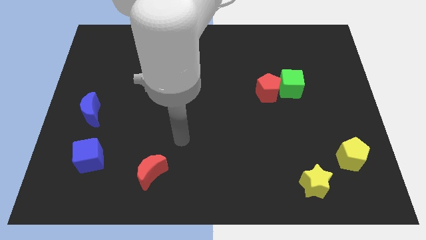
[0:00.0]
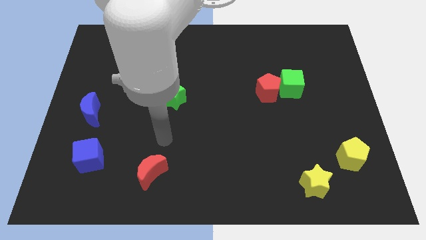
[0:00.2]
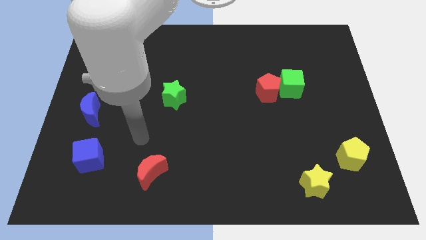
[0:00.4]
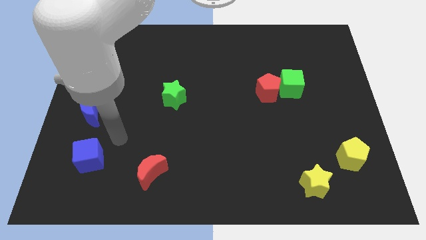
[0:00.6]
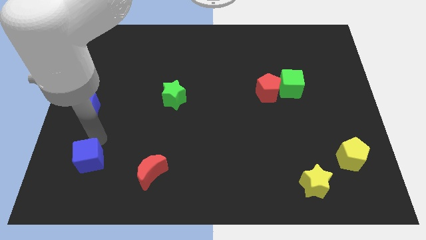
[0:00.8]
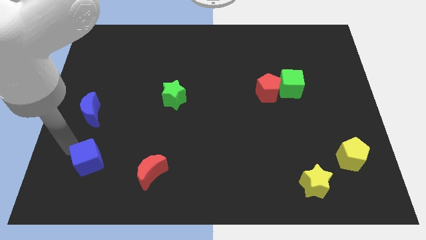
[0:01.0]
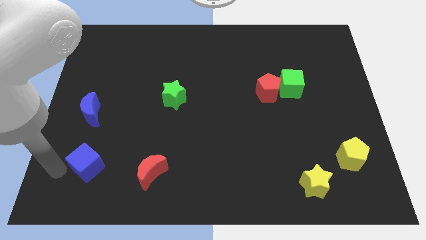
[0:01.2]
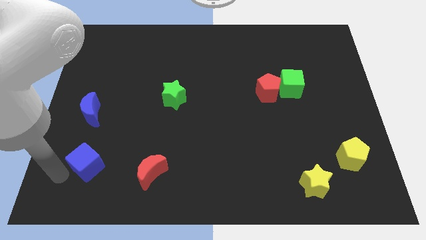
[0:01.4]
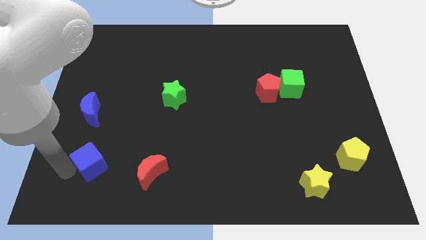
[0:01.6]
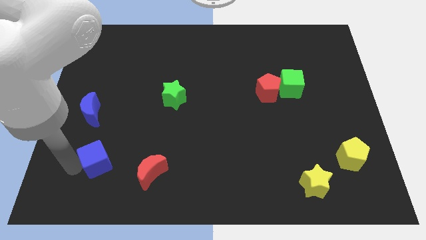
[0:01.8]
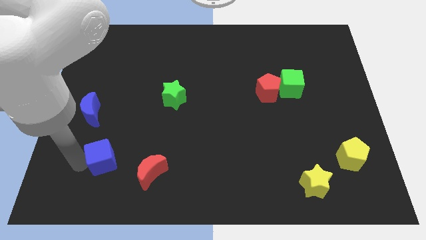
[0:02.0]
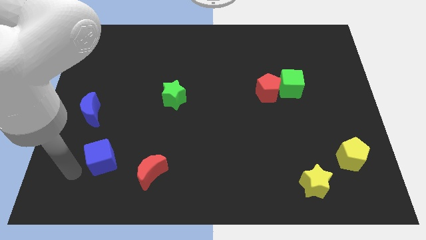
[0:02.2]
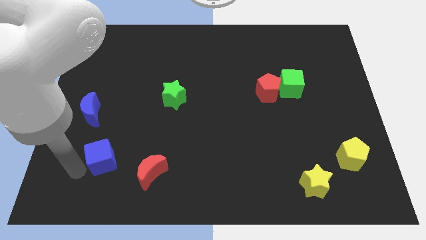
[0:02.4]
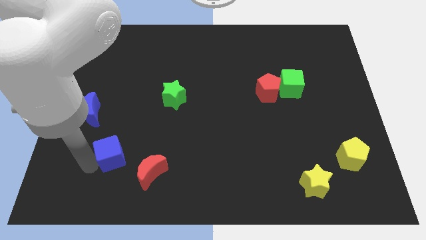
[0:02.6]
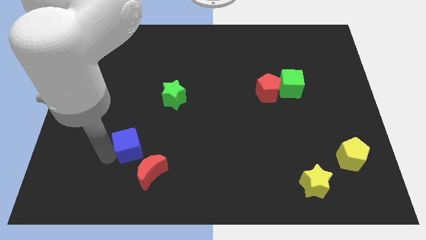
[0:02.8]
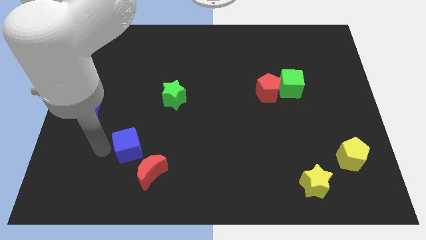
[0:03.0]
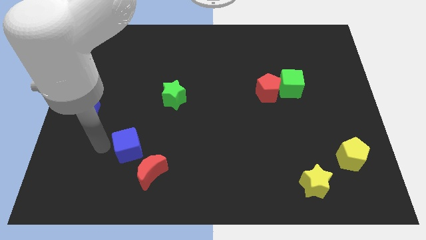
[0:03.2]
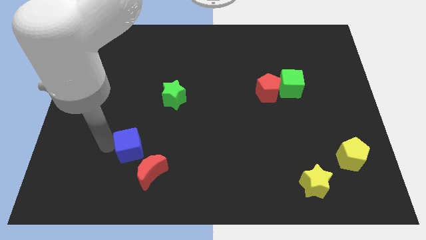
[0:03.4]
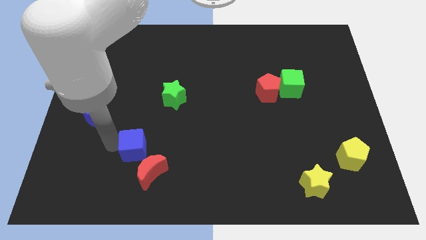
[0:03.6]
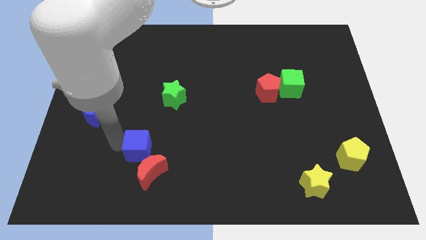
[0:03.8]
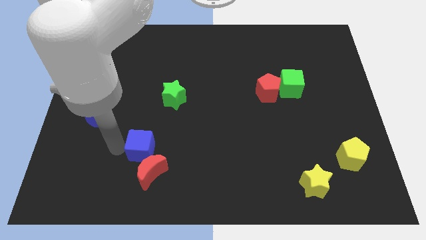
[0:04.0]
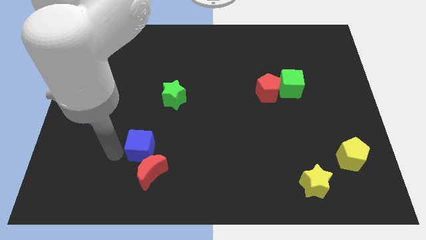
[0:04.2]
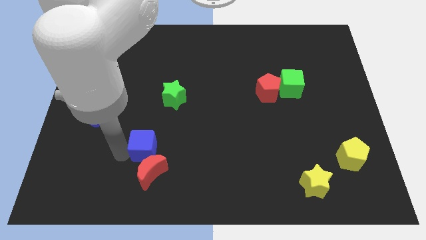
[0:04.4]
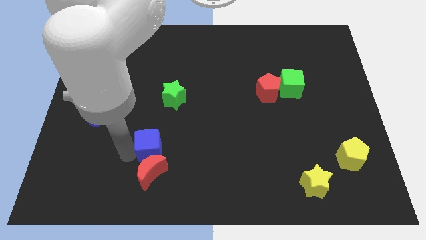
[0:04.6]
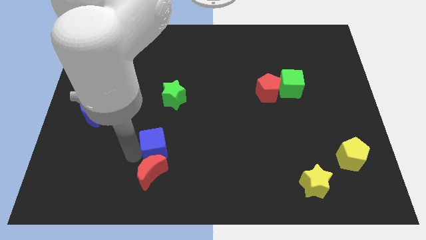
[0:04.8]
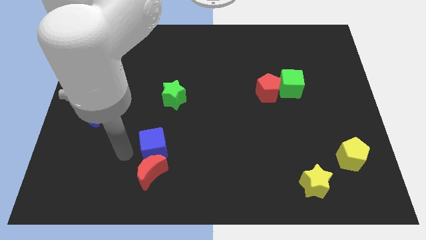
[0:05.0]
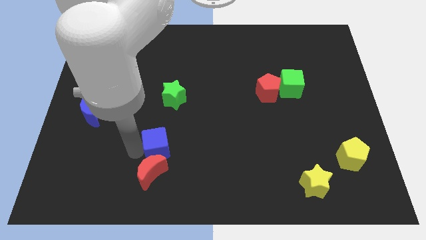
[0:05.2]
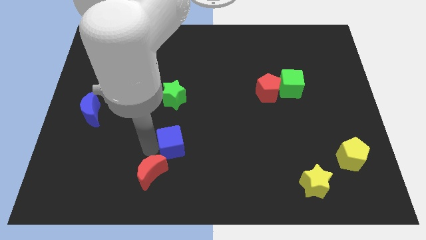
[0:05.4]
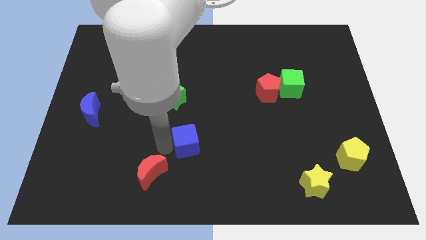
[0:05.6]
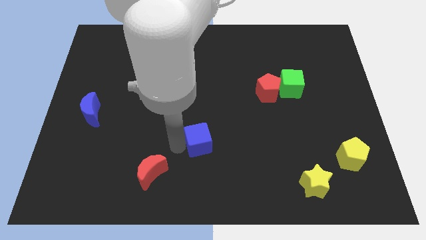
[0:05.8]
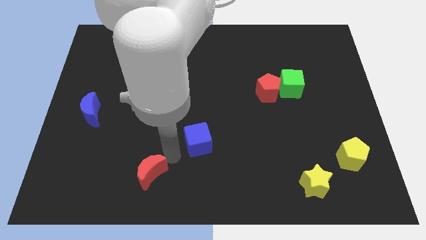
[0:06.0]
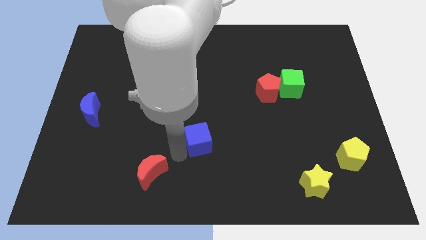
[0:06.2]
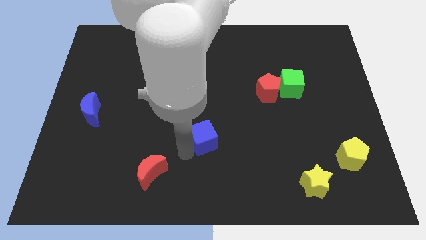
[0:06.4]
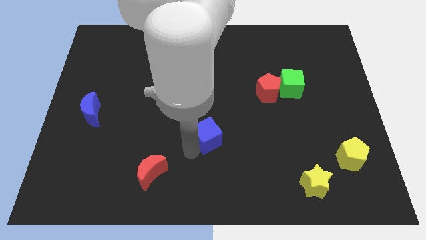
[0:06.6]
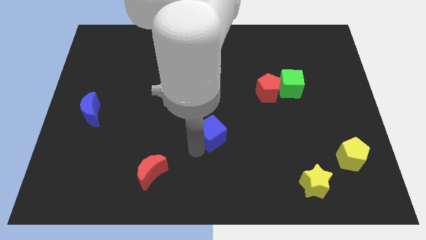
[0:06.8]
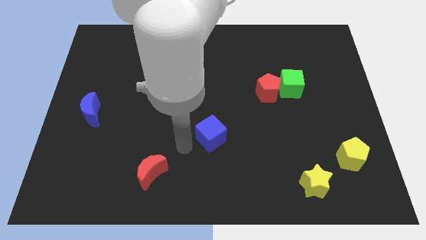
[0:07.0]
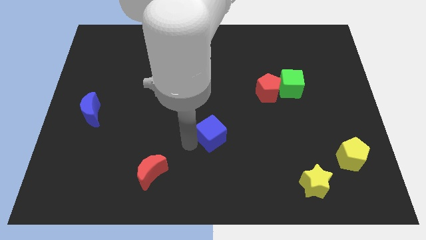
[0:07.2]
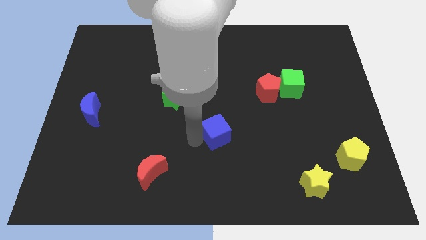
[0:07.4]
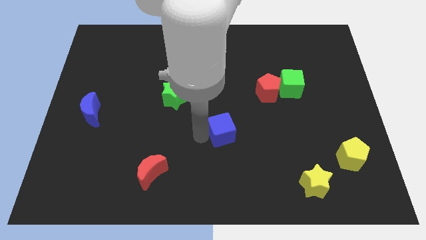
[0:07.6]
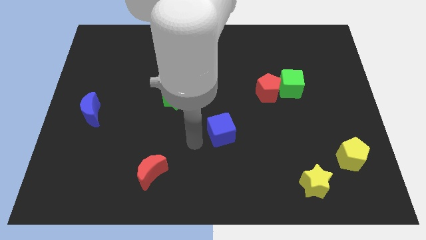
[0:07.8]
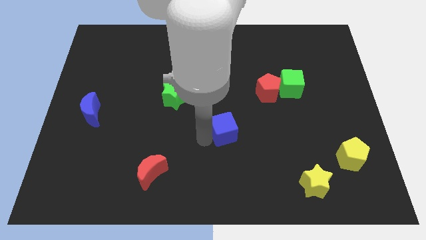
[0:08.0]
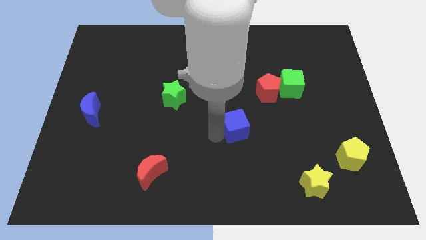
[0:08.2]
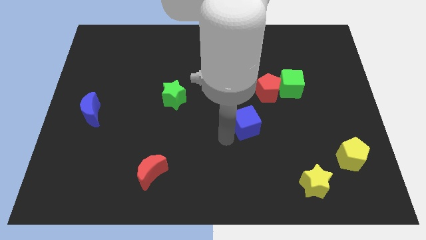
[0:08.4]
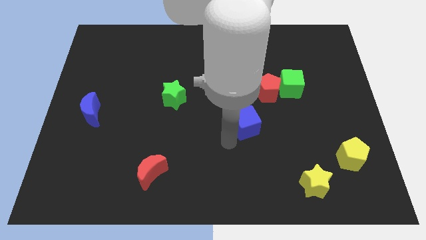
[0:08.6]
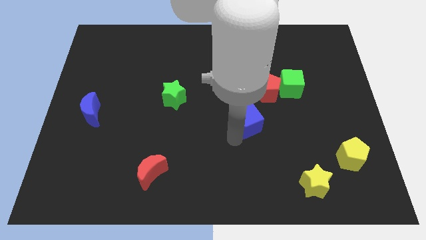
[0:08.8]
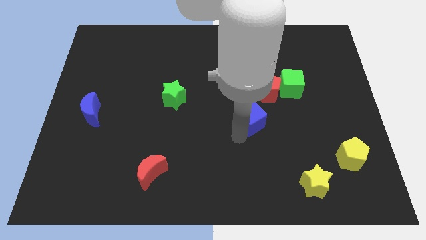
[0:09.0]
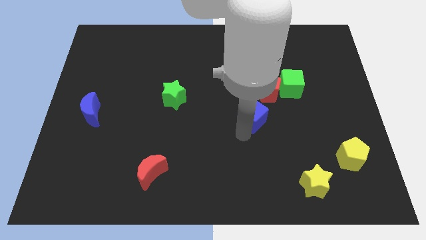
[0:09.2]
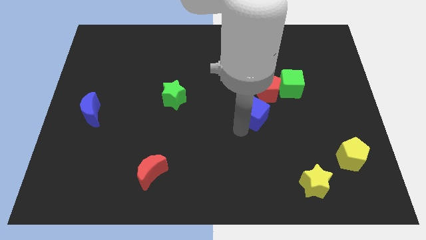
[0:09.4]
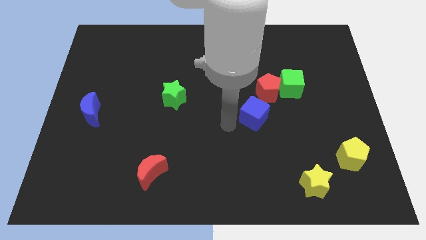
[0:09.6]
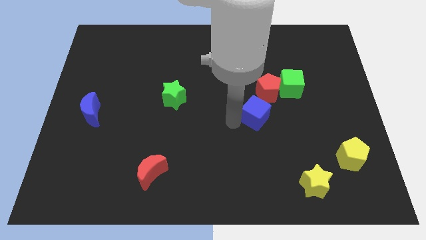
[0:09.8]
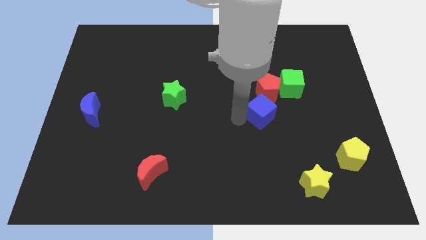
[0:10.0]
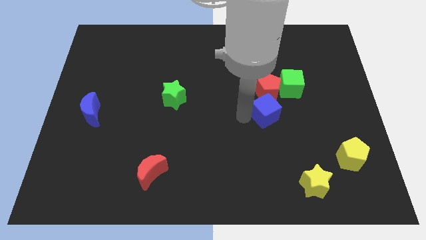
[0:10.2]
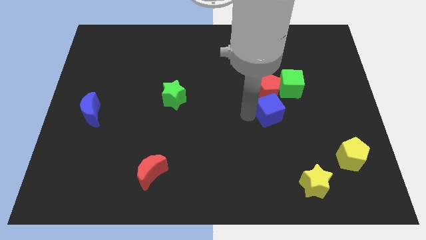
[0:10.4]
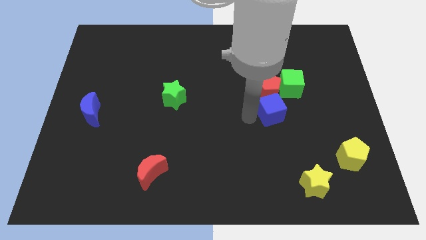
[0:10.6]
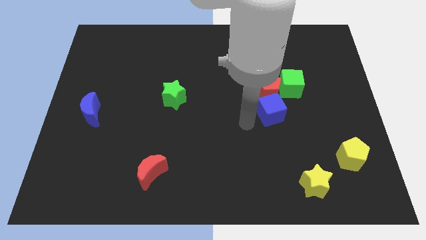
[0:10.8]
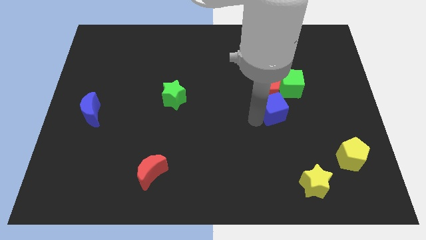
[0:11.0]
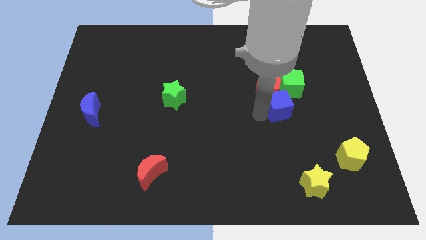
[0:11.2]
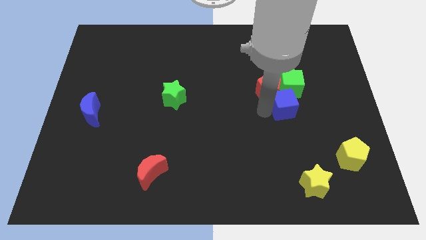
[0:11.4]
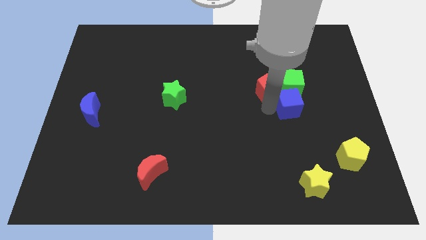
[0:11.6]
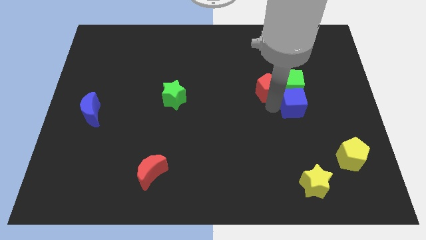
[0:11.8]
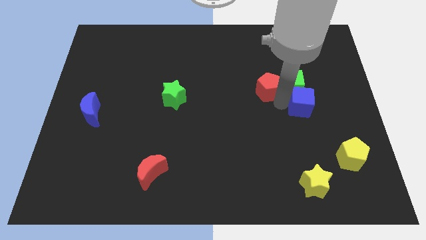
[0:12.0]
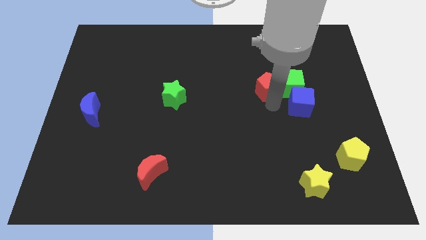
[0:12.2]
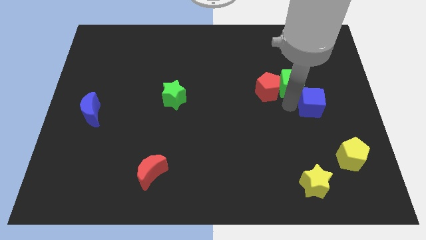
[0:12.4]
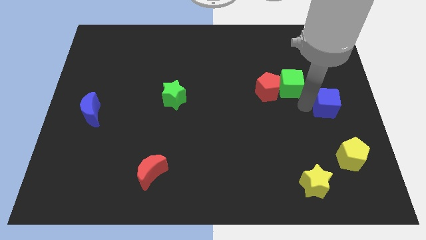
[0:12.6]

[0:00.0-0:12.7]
put the blue cube to the right side of the board
